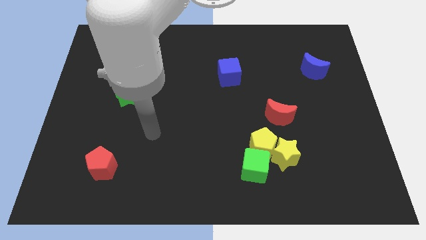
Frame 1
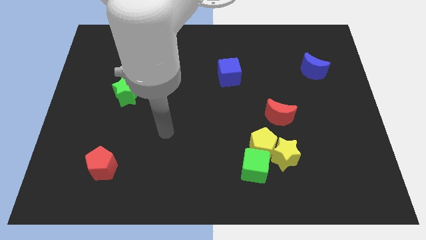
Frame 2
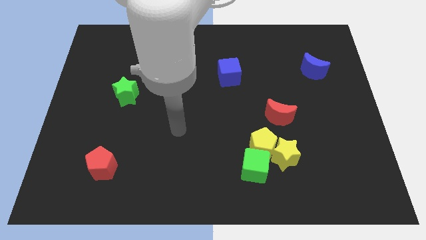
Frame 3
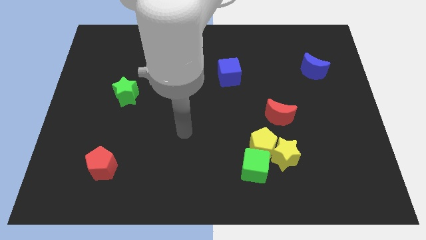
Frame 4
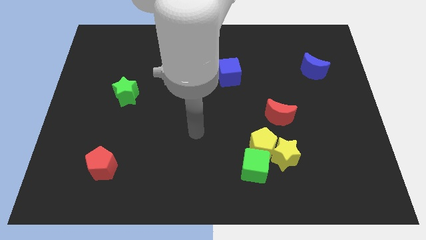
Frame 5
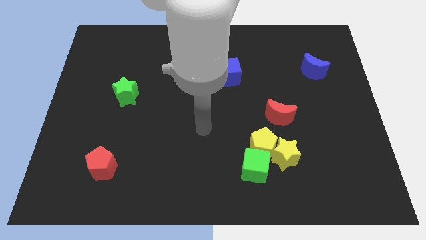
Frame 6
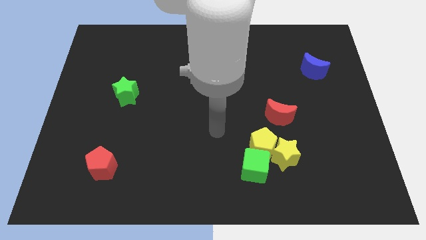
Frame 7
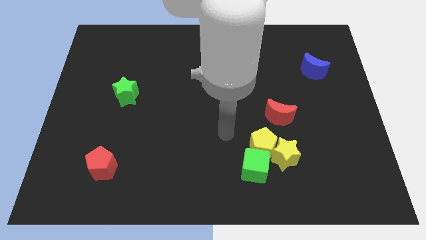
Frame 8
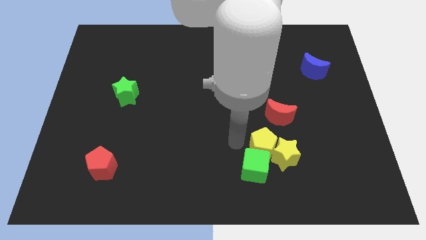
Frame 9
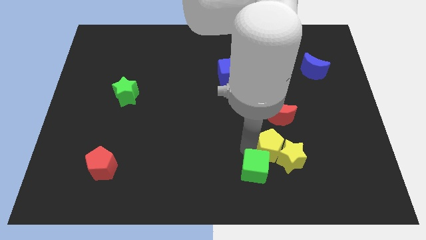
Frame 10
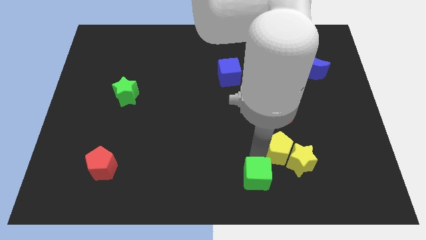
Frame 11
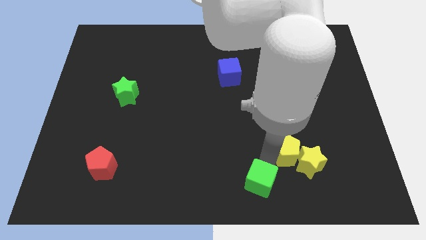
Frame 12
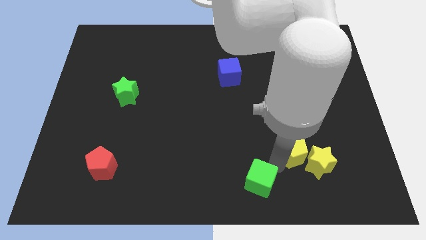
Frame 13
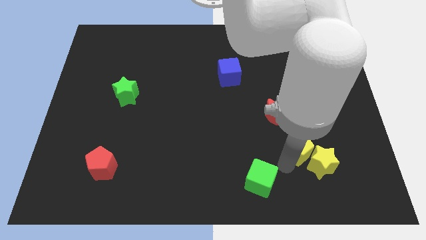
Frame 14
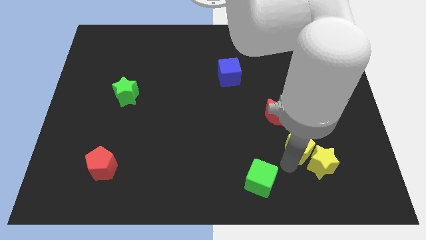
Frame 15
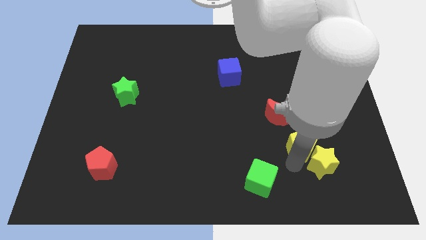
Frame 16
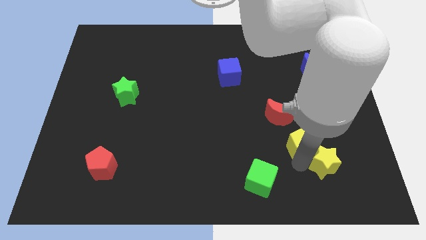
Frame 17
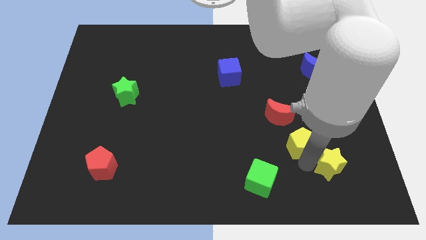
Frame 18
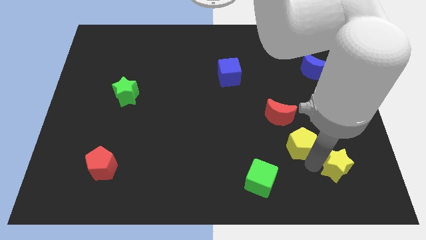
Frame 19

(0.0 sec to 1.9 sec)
pull the yellow star apart from the yellow pentagon and green cube

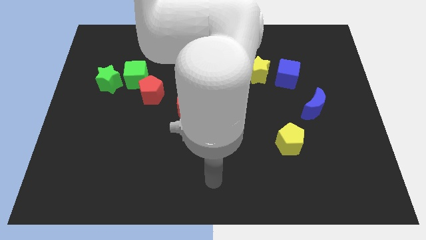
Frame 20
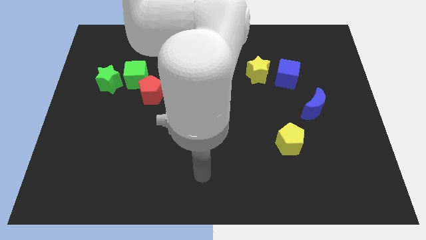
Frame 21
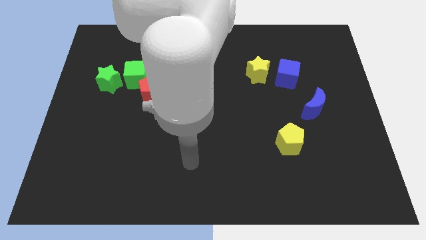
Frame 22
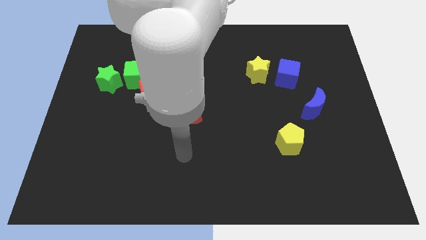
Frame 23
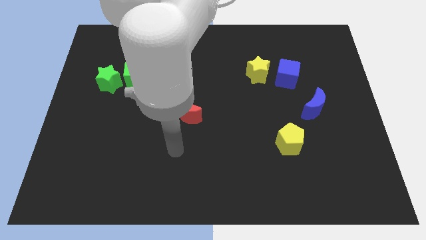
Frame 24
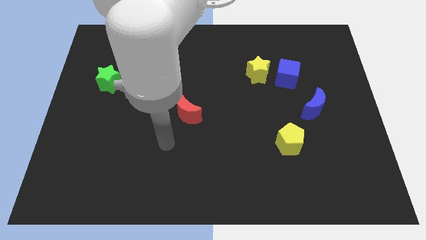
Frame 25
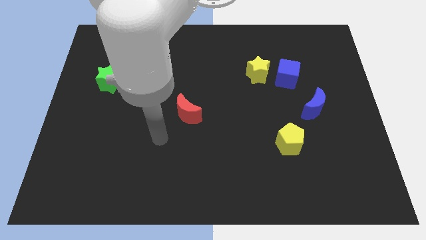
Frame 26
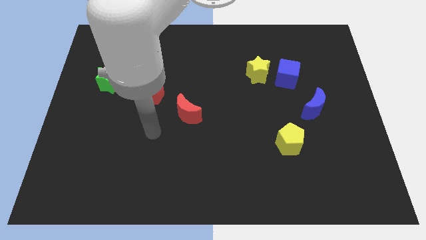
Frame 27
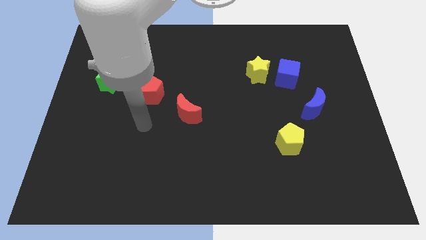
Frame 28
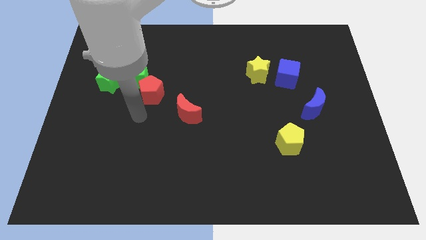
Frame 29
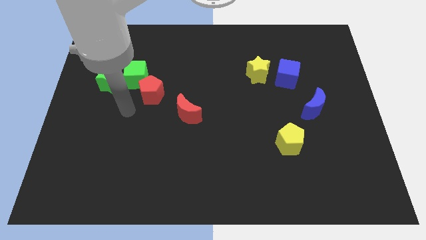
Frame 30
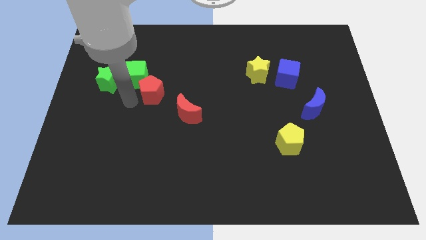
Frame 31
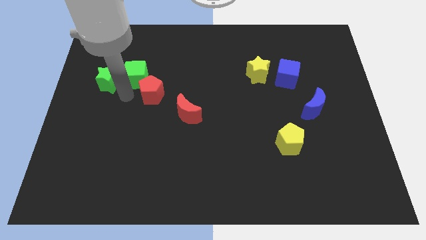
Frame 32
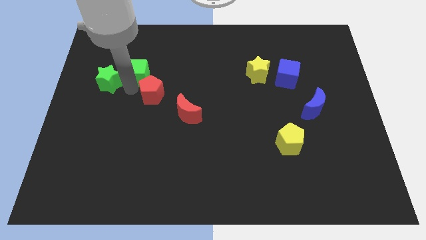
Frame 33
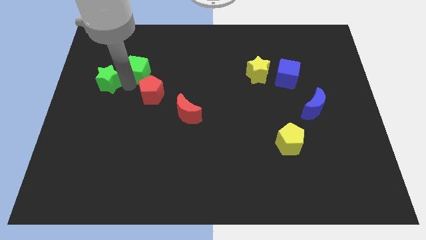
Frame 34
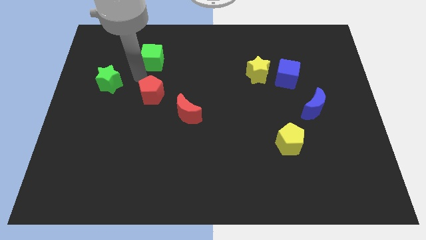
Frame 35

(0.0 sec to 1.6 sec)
separate the red pentagon from the green cube

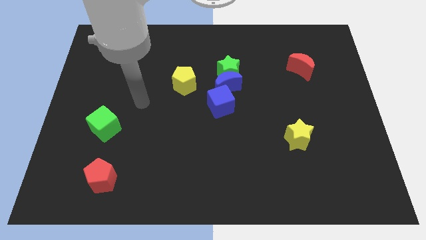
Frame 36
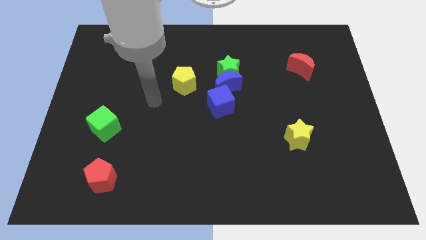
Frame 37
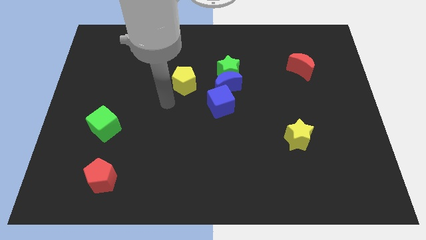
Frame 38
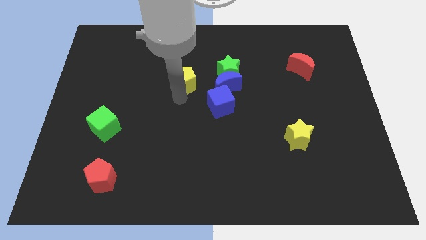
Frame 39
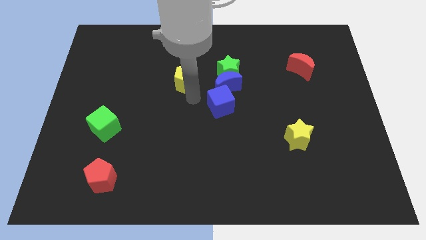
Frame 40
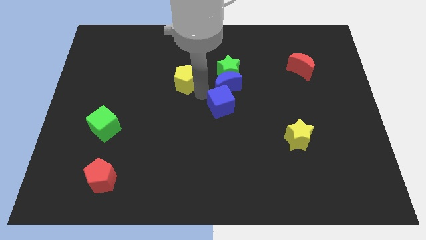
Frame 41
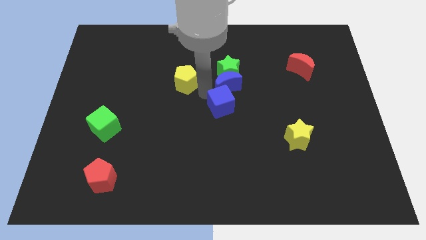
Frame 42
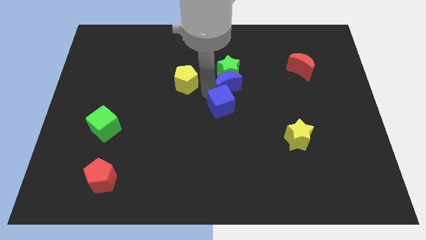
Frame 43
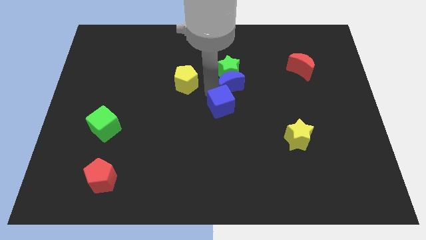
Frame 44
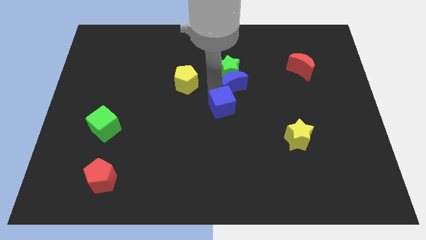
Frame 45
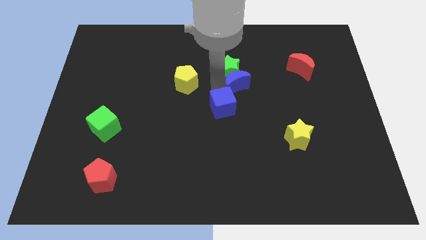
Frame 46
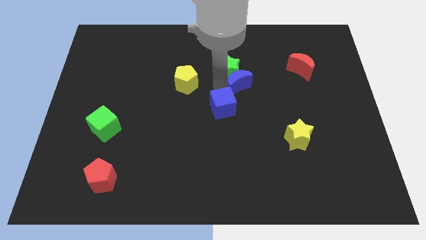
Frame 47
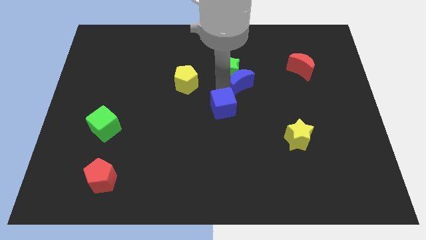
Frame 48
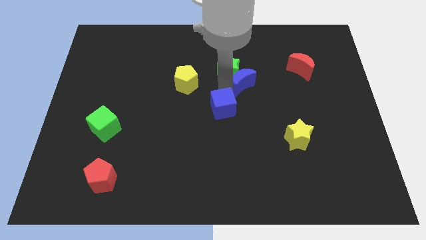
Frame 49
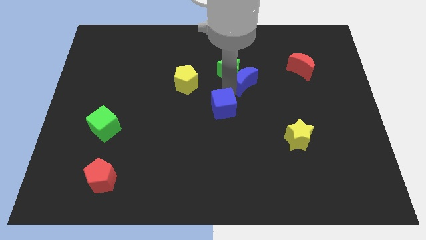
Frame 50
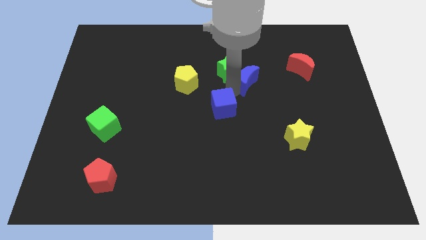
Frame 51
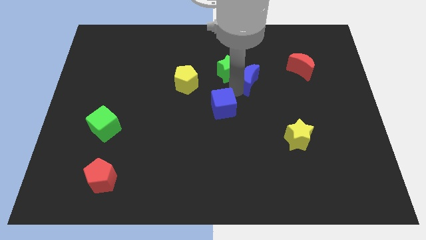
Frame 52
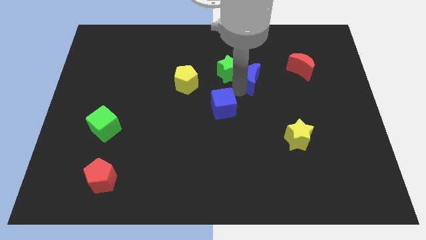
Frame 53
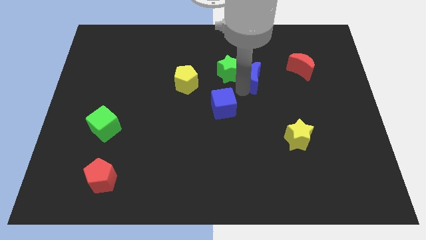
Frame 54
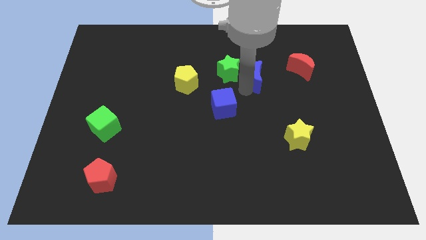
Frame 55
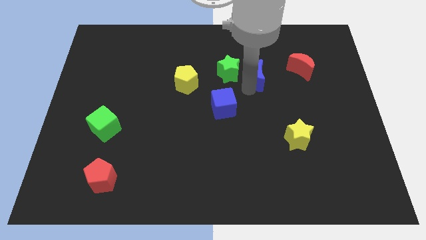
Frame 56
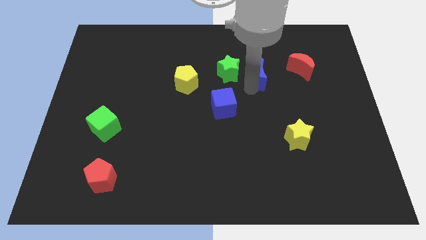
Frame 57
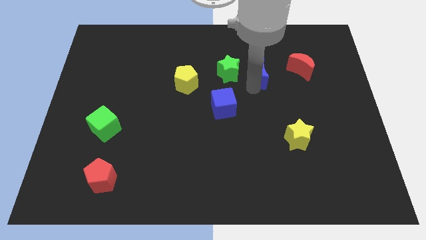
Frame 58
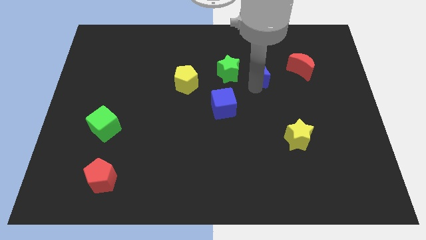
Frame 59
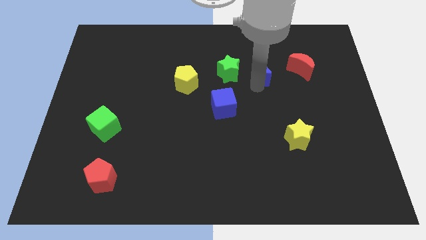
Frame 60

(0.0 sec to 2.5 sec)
pull the blue moon apart from the green star and blue cube

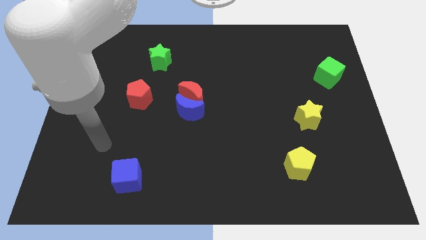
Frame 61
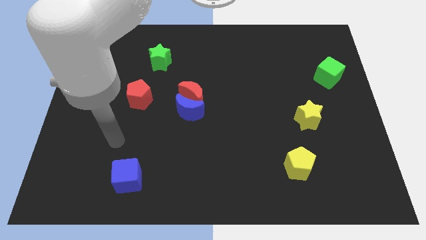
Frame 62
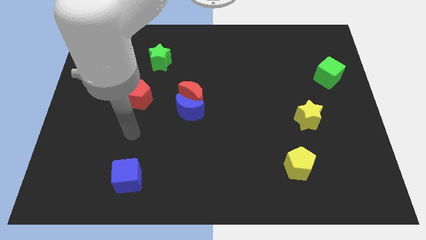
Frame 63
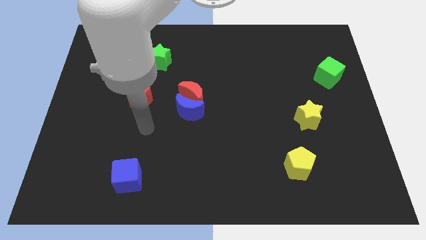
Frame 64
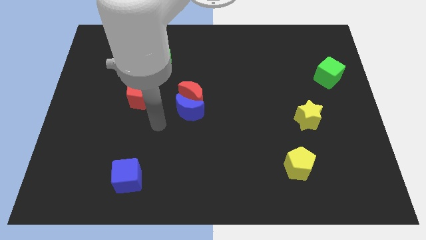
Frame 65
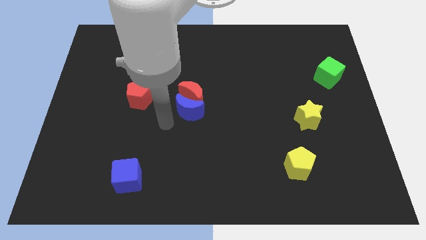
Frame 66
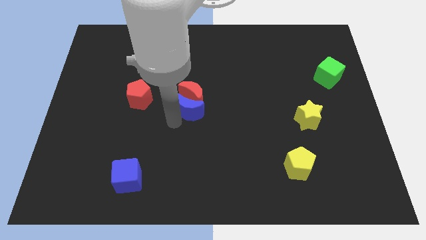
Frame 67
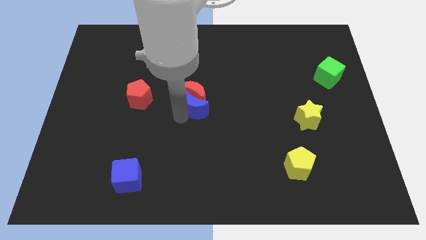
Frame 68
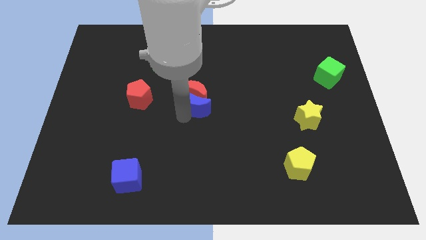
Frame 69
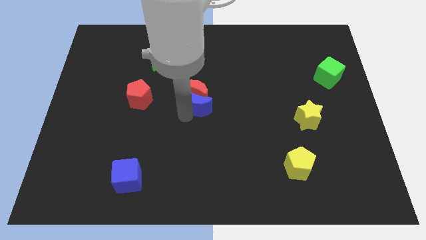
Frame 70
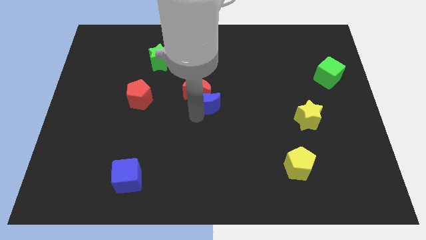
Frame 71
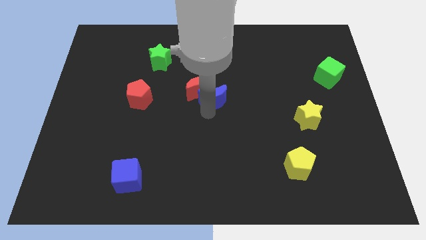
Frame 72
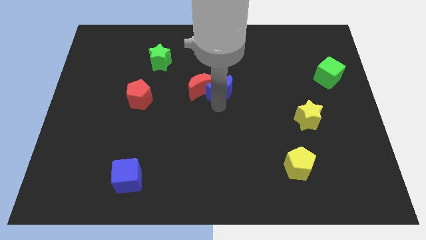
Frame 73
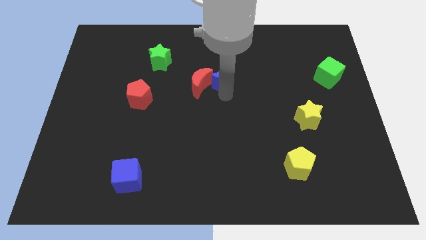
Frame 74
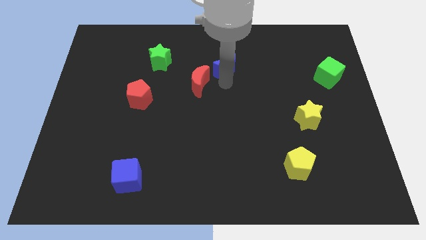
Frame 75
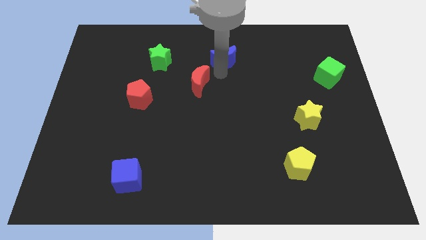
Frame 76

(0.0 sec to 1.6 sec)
pull the red moon apart from the blue moon

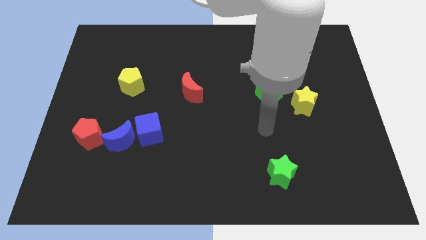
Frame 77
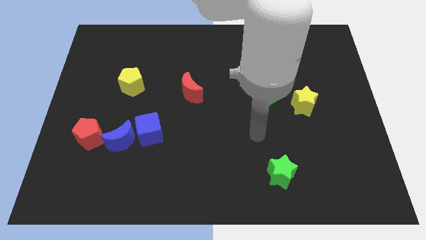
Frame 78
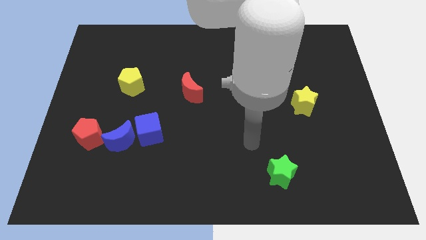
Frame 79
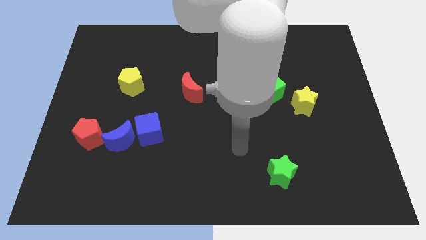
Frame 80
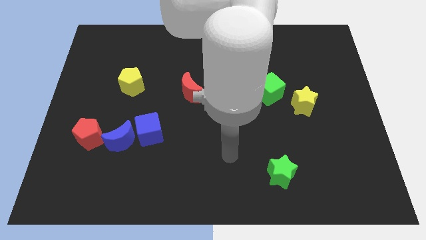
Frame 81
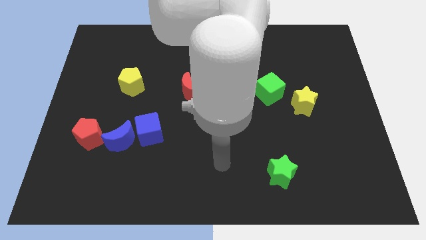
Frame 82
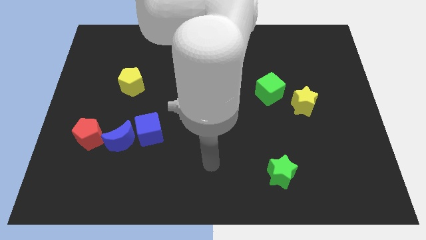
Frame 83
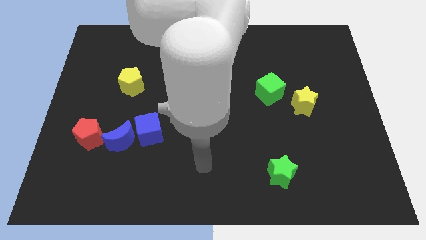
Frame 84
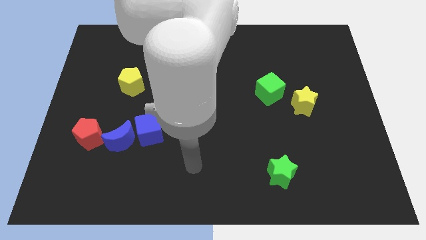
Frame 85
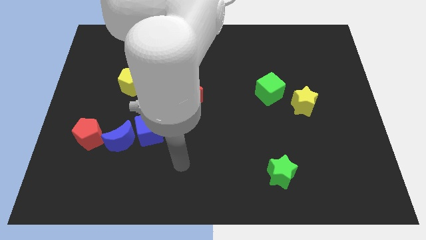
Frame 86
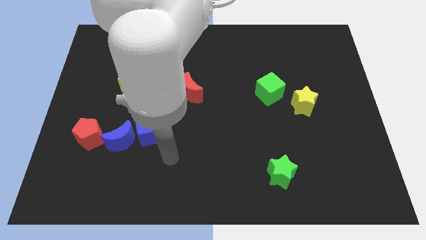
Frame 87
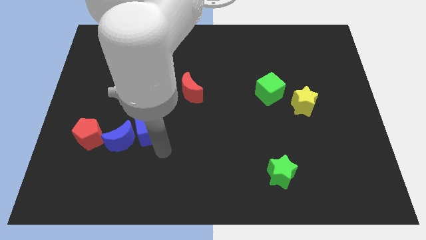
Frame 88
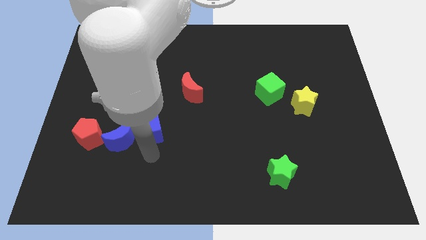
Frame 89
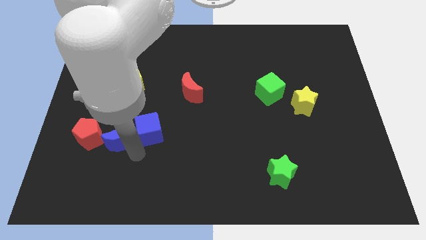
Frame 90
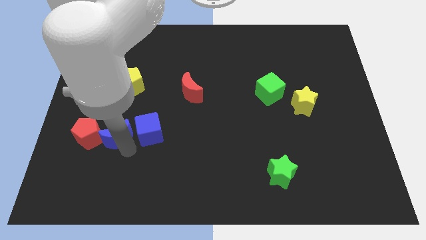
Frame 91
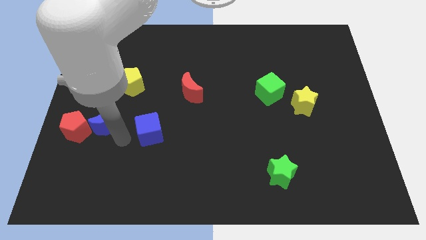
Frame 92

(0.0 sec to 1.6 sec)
separate the blue cube from the blue moon
